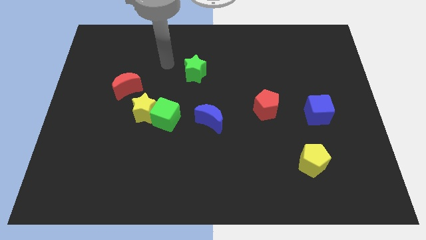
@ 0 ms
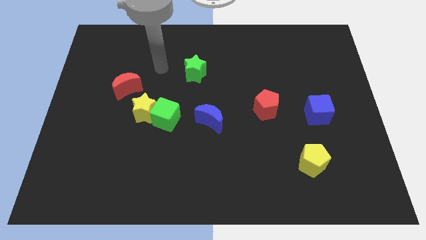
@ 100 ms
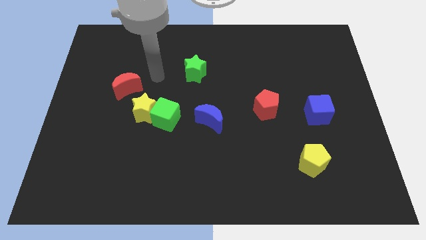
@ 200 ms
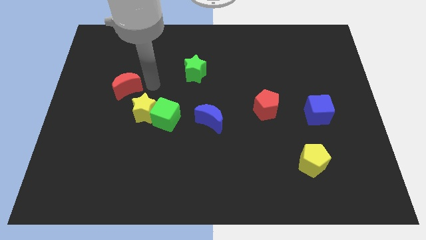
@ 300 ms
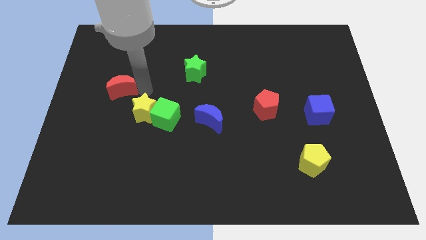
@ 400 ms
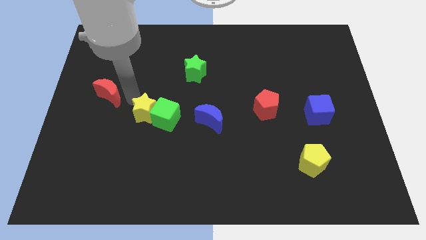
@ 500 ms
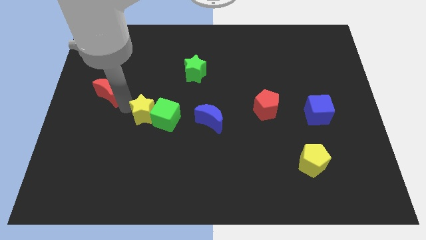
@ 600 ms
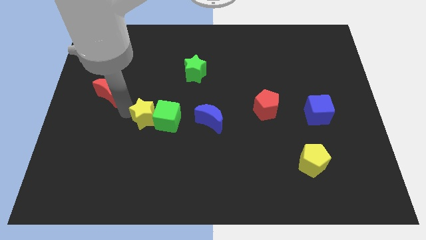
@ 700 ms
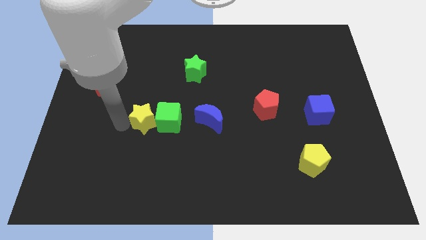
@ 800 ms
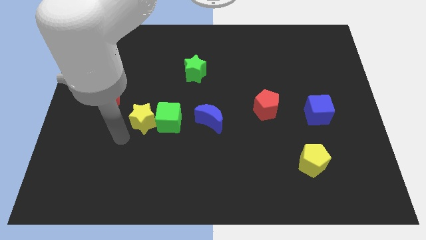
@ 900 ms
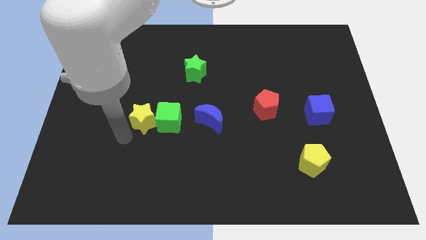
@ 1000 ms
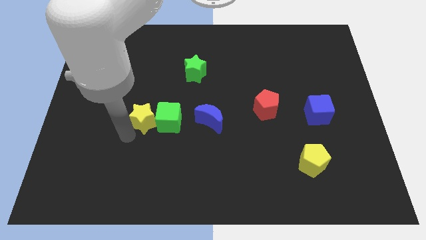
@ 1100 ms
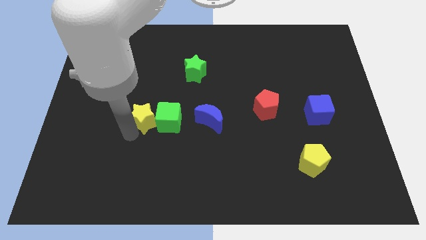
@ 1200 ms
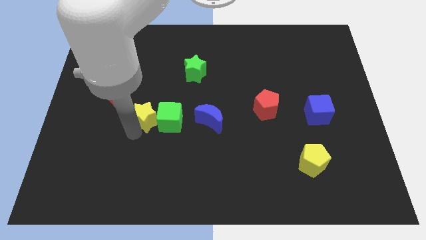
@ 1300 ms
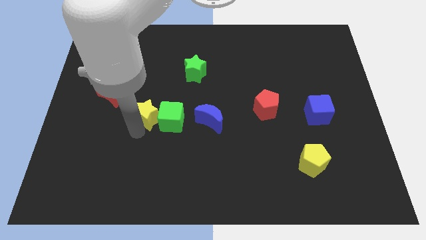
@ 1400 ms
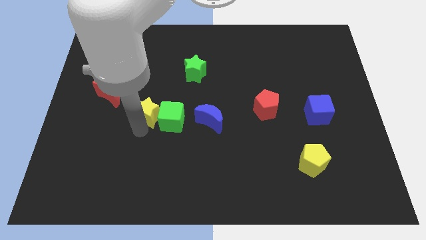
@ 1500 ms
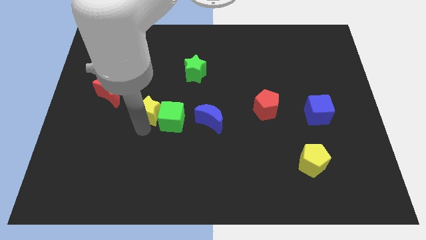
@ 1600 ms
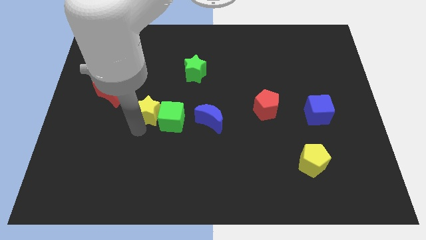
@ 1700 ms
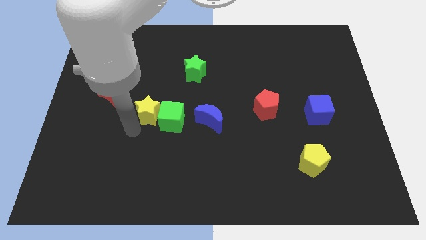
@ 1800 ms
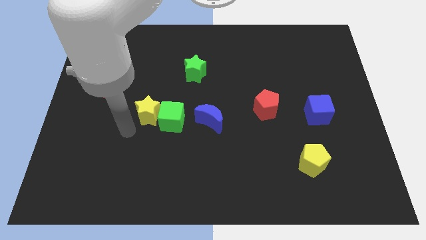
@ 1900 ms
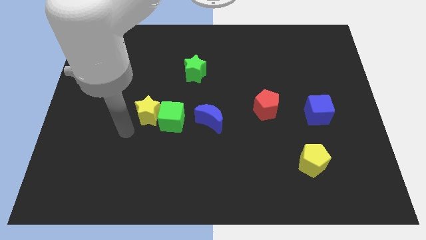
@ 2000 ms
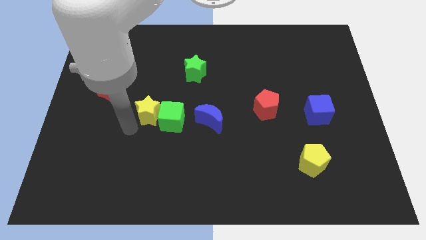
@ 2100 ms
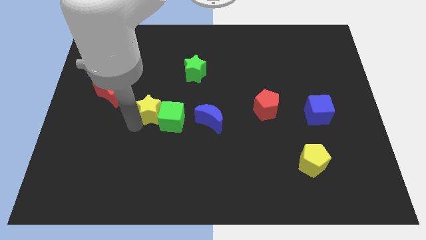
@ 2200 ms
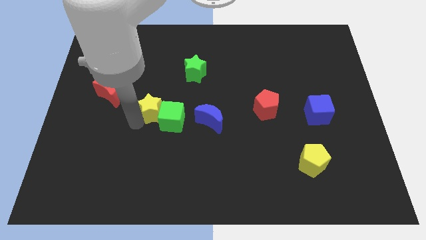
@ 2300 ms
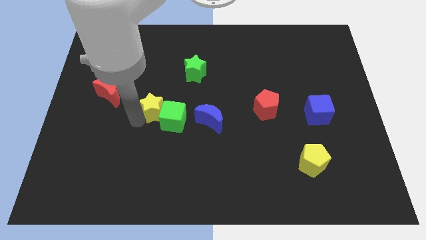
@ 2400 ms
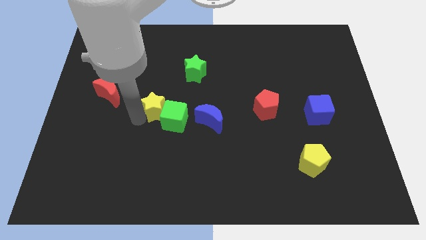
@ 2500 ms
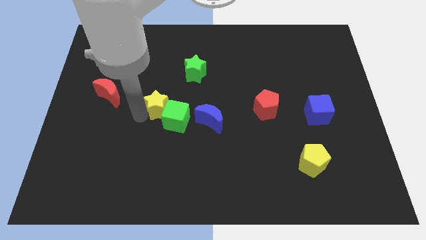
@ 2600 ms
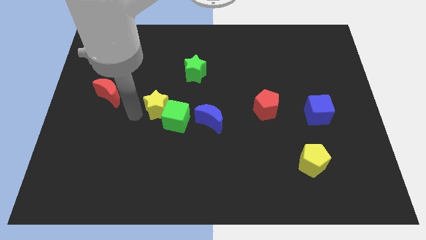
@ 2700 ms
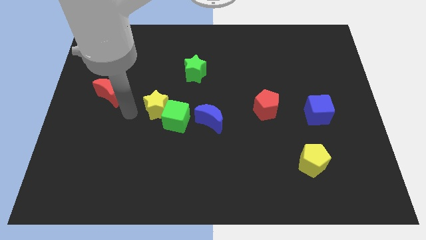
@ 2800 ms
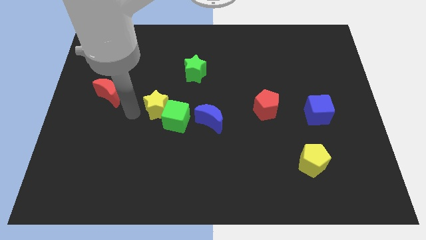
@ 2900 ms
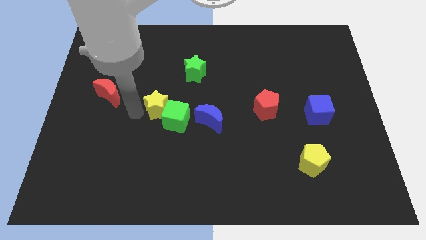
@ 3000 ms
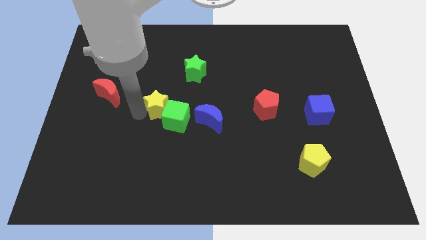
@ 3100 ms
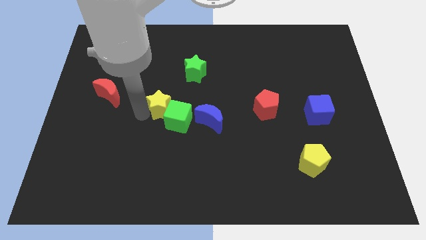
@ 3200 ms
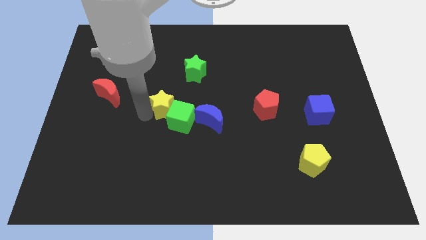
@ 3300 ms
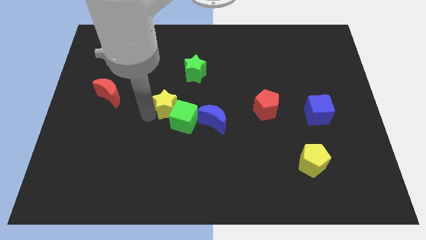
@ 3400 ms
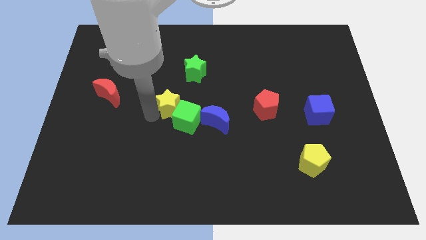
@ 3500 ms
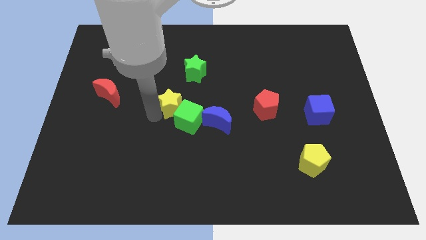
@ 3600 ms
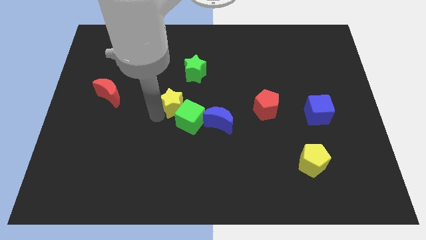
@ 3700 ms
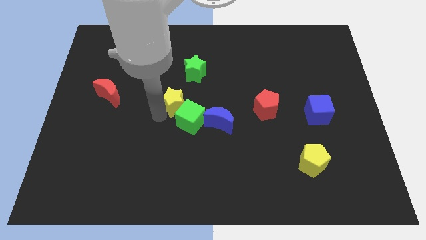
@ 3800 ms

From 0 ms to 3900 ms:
push the yellow star to the right a little

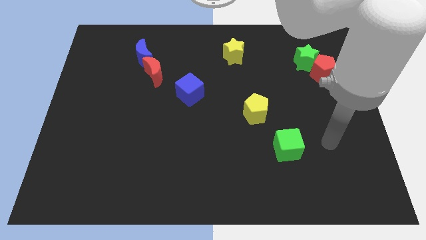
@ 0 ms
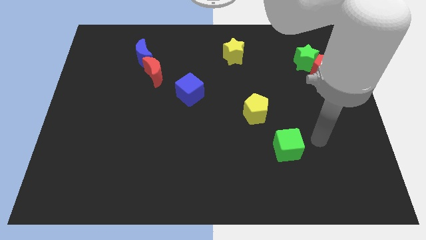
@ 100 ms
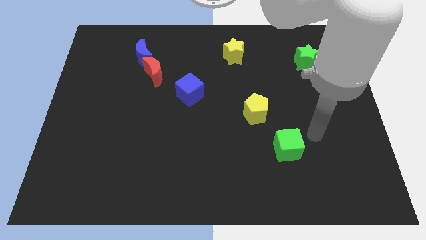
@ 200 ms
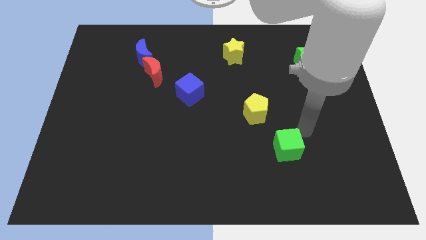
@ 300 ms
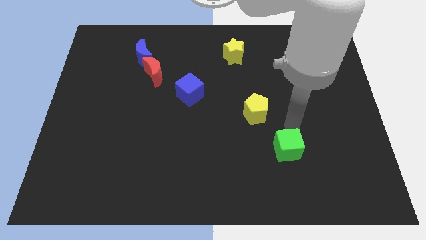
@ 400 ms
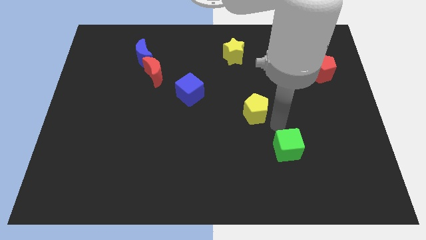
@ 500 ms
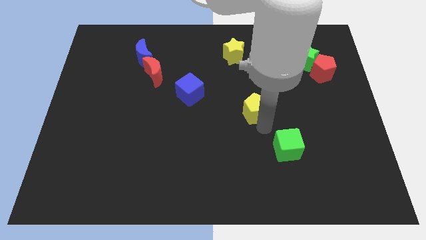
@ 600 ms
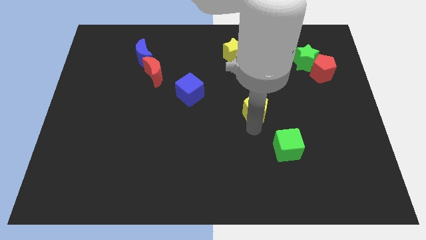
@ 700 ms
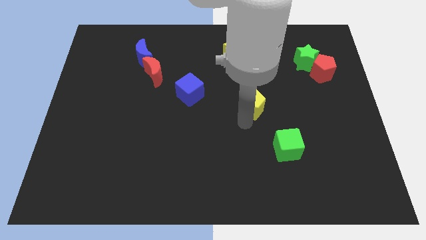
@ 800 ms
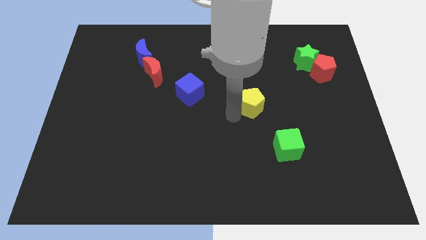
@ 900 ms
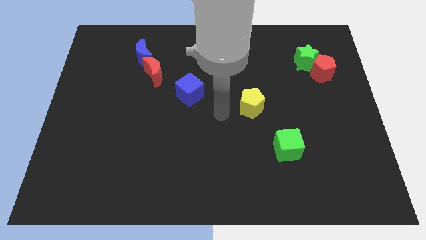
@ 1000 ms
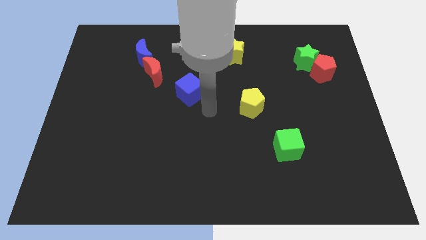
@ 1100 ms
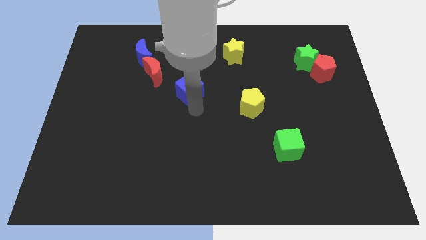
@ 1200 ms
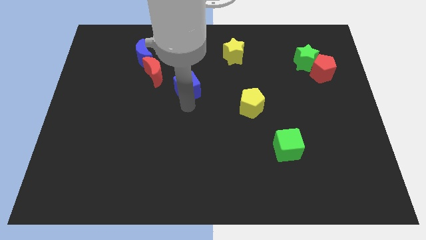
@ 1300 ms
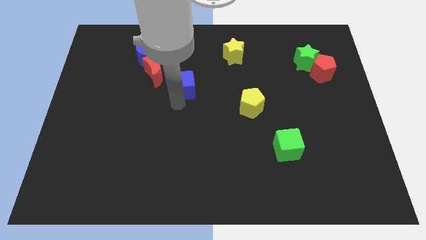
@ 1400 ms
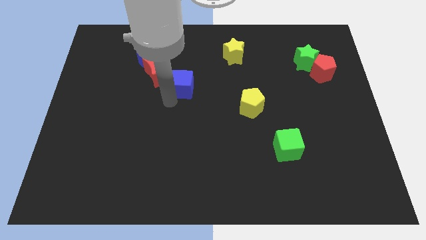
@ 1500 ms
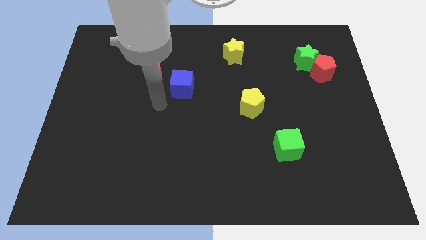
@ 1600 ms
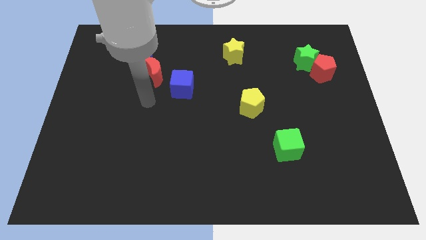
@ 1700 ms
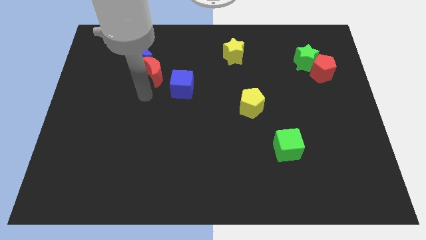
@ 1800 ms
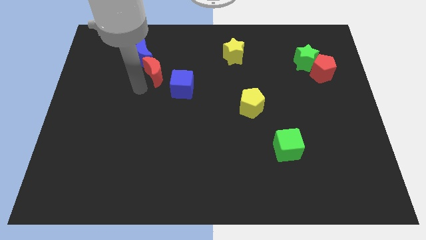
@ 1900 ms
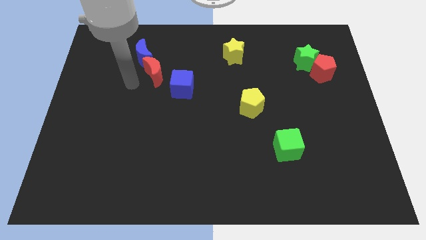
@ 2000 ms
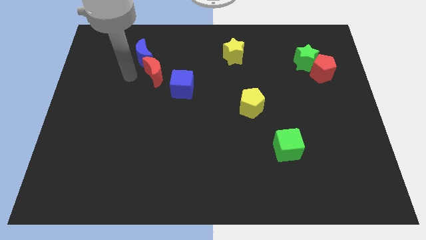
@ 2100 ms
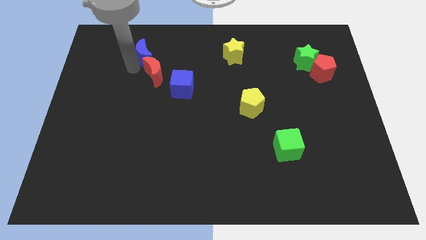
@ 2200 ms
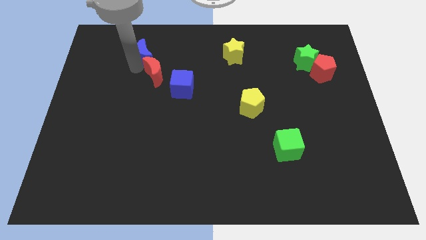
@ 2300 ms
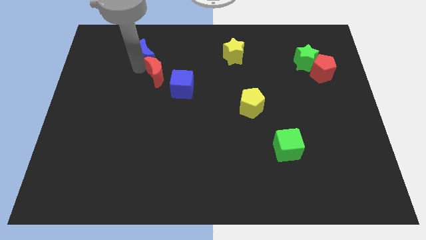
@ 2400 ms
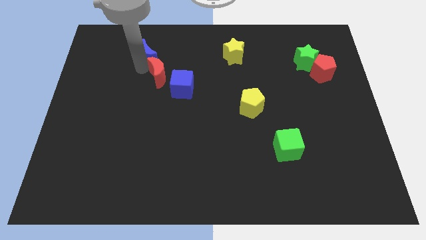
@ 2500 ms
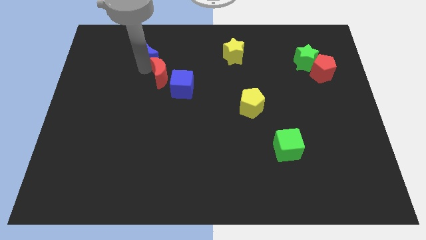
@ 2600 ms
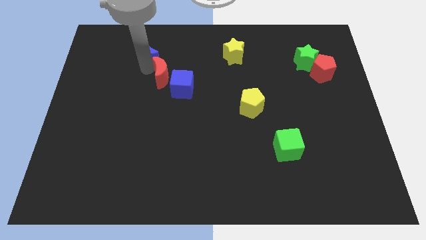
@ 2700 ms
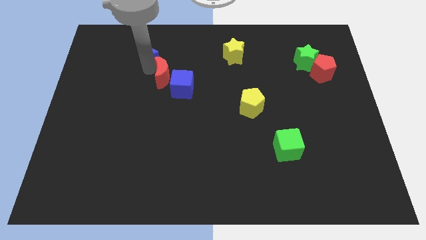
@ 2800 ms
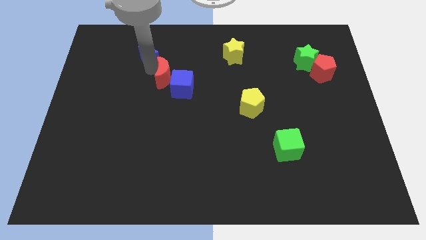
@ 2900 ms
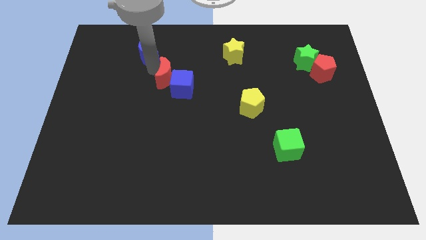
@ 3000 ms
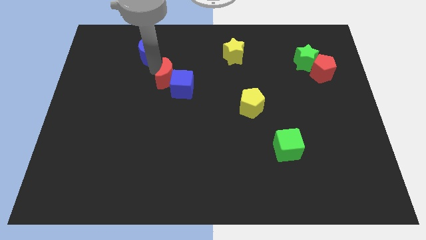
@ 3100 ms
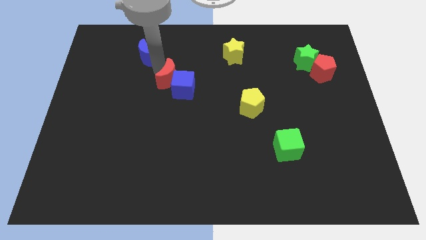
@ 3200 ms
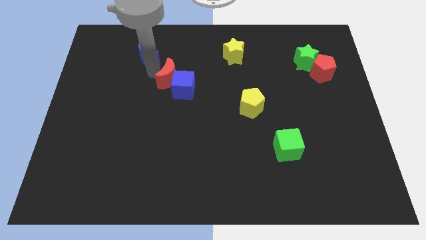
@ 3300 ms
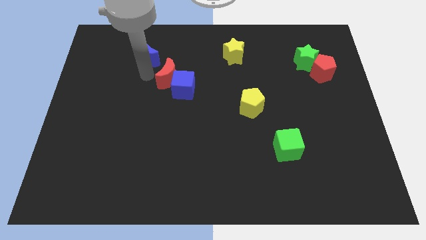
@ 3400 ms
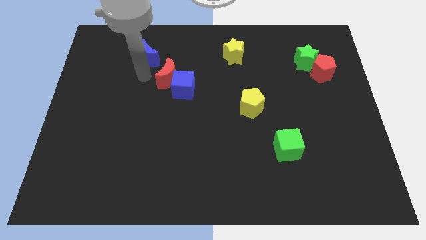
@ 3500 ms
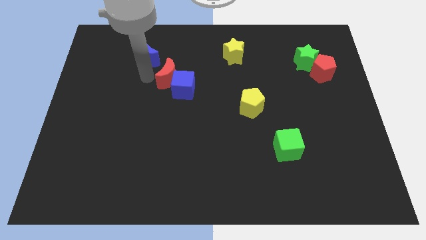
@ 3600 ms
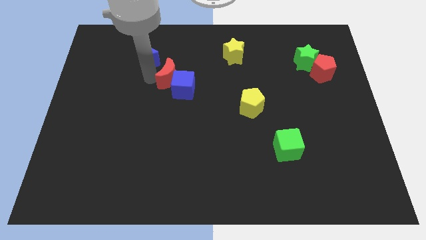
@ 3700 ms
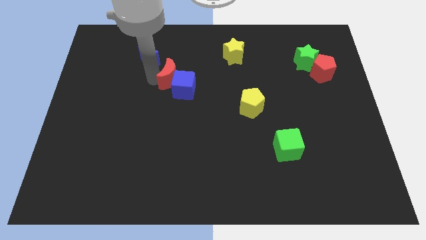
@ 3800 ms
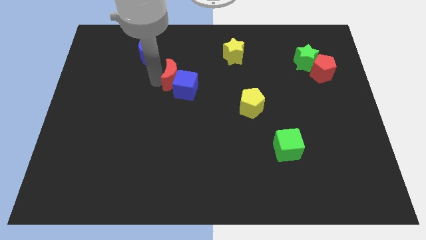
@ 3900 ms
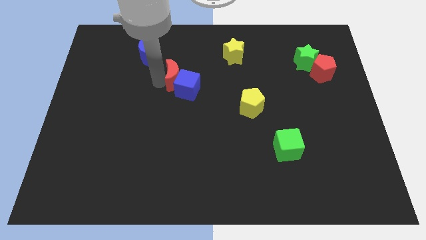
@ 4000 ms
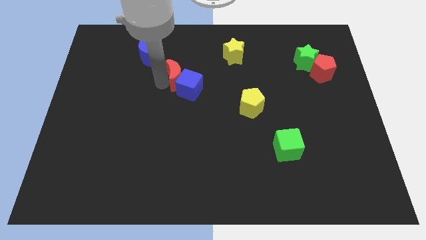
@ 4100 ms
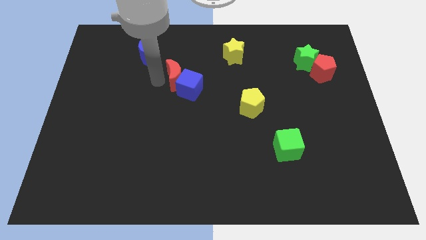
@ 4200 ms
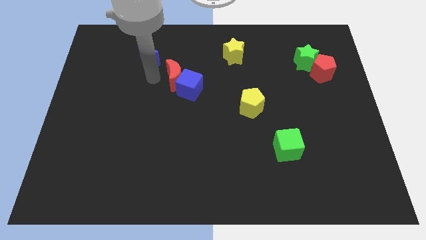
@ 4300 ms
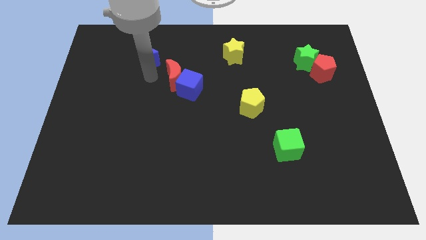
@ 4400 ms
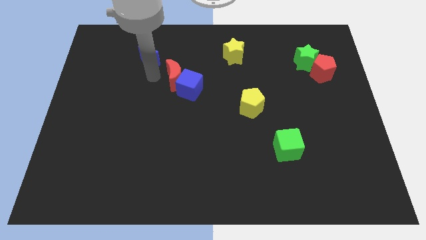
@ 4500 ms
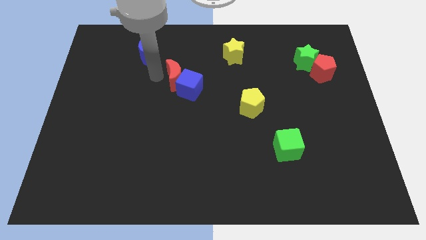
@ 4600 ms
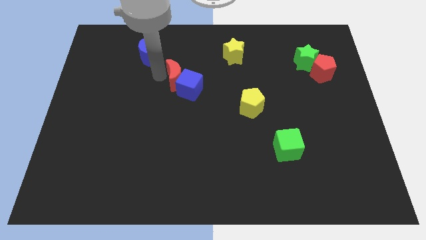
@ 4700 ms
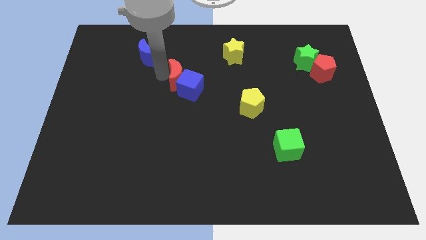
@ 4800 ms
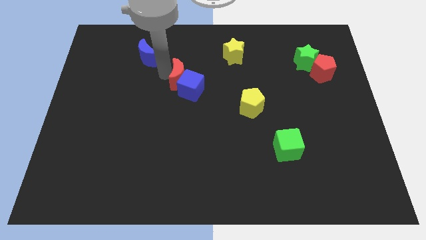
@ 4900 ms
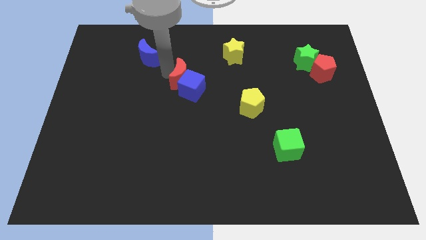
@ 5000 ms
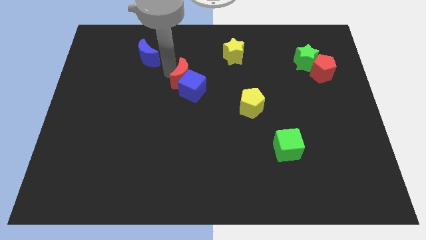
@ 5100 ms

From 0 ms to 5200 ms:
slightly move the red moon right
